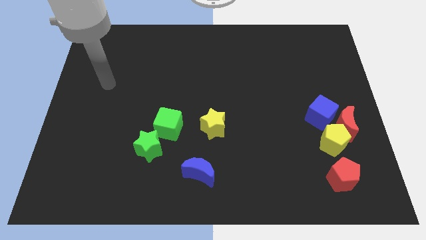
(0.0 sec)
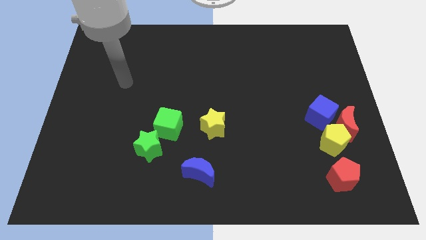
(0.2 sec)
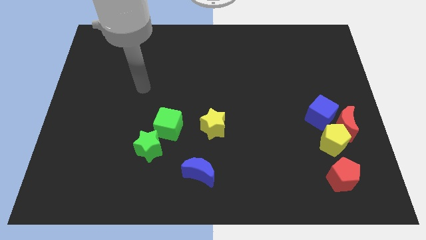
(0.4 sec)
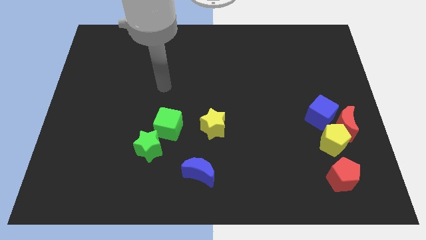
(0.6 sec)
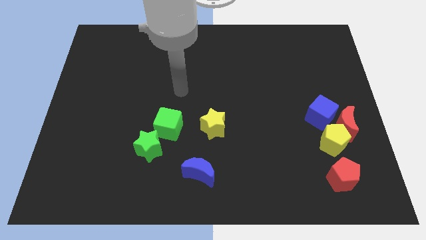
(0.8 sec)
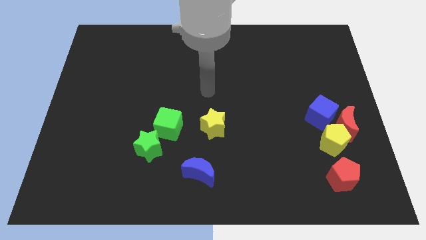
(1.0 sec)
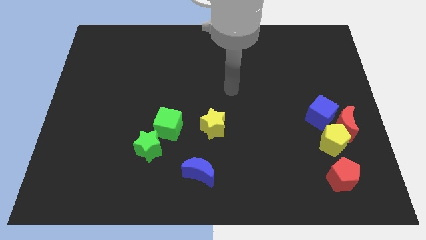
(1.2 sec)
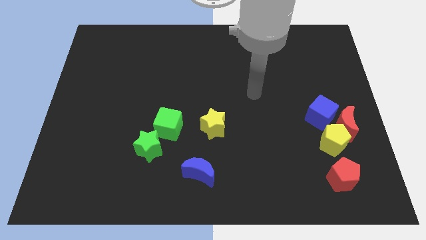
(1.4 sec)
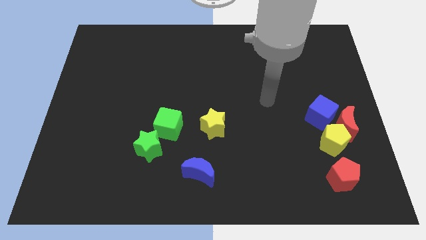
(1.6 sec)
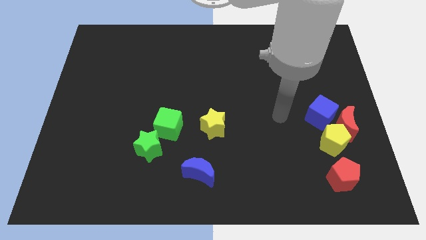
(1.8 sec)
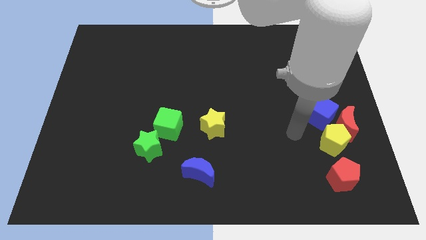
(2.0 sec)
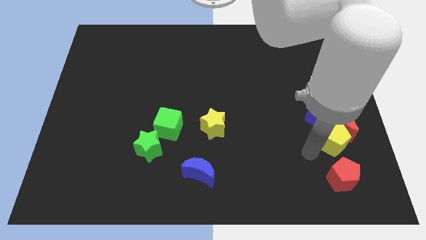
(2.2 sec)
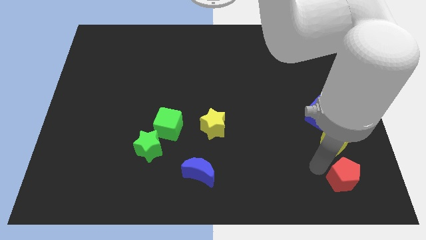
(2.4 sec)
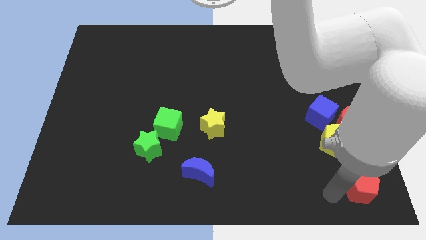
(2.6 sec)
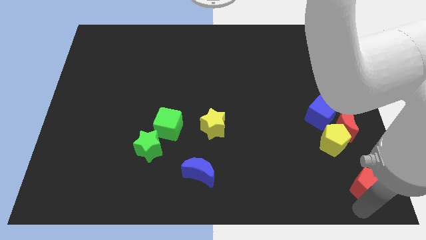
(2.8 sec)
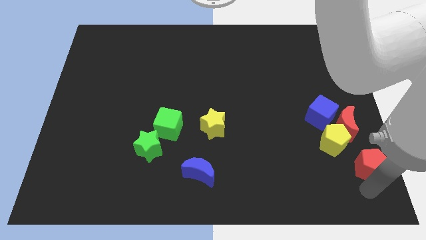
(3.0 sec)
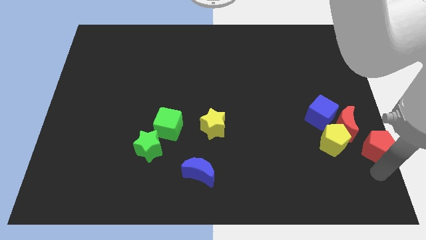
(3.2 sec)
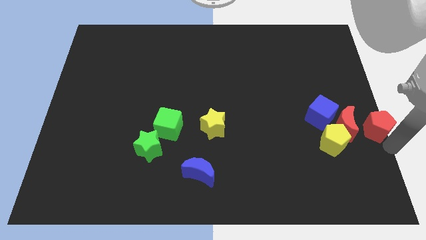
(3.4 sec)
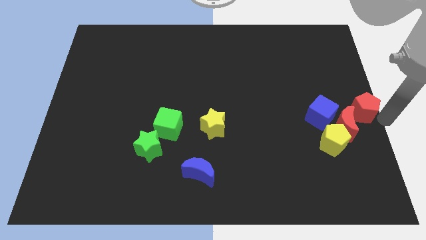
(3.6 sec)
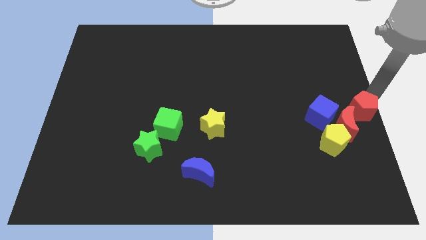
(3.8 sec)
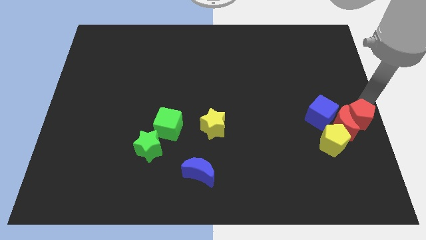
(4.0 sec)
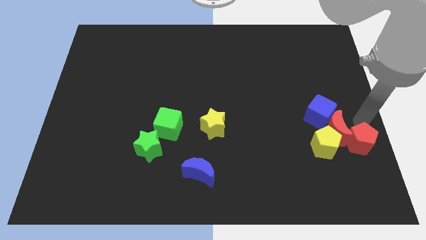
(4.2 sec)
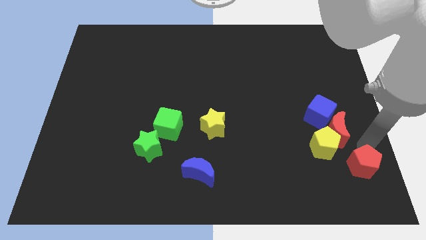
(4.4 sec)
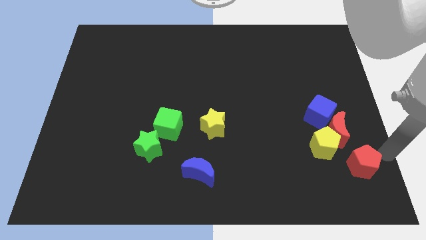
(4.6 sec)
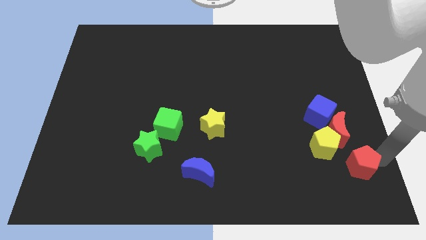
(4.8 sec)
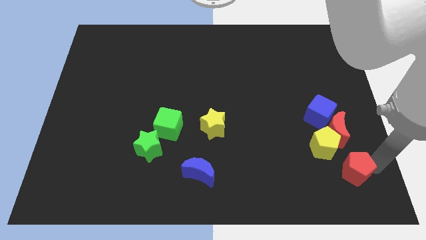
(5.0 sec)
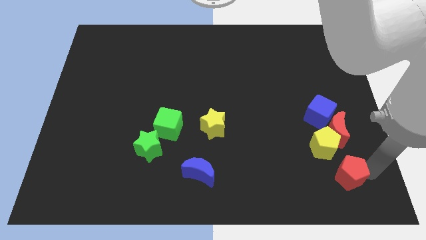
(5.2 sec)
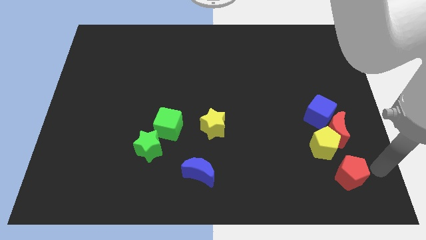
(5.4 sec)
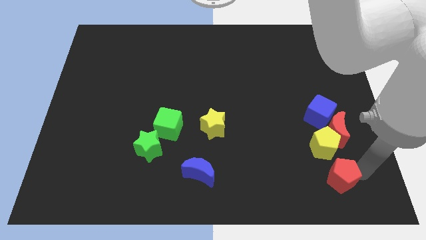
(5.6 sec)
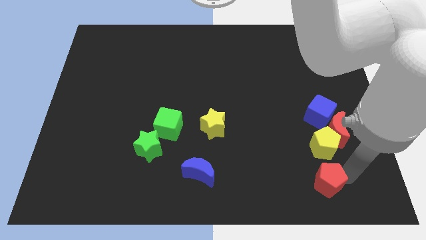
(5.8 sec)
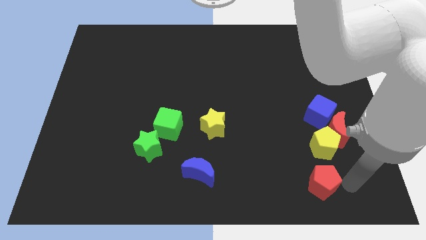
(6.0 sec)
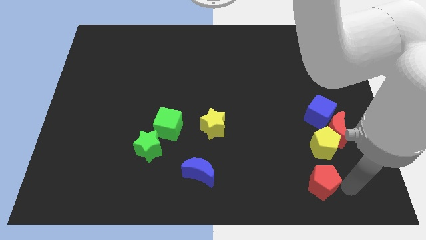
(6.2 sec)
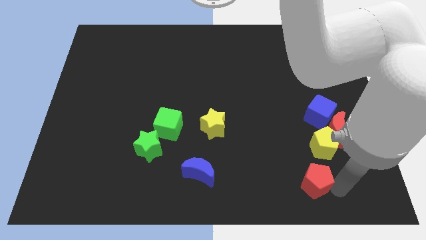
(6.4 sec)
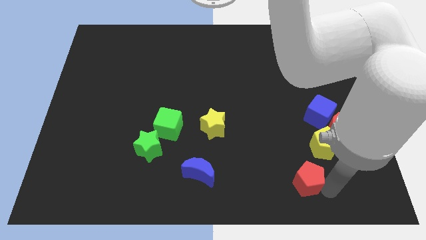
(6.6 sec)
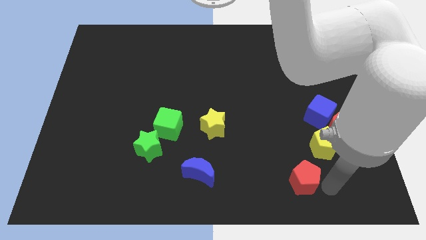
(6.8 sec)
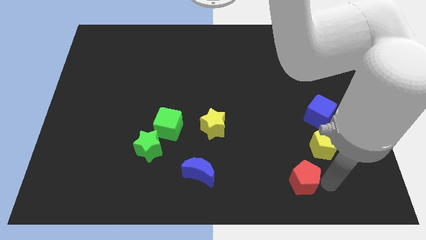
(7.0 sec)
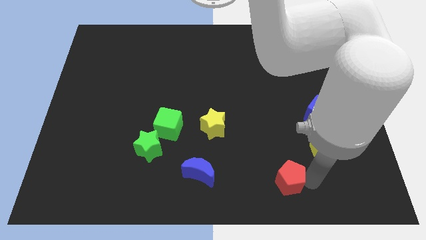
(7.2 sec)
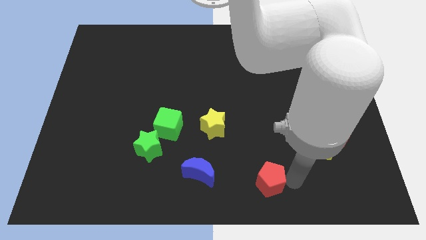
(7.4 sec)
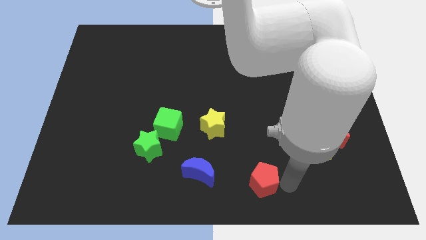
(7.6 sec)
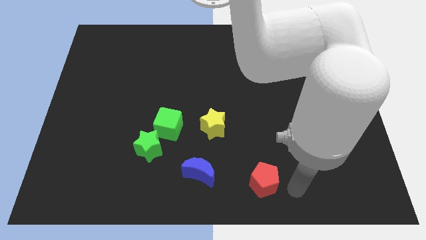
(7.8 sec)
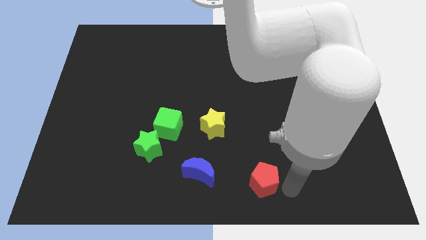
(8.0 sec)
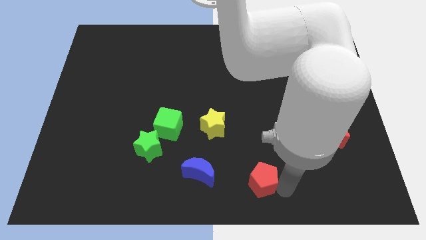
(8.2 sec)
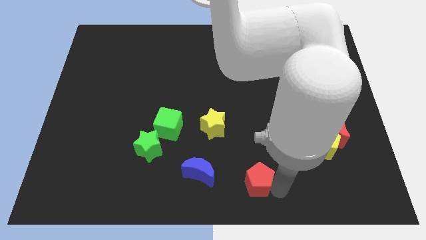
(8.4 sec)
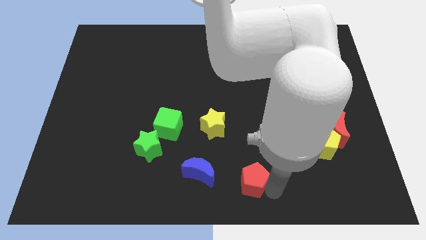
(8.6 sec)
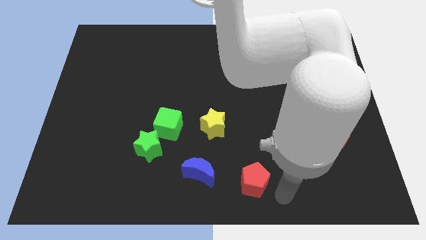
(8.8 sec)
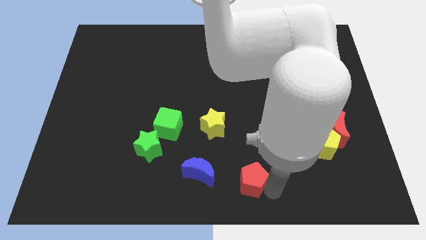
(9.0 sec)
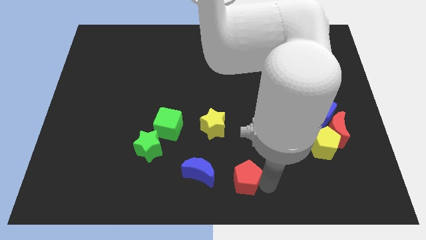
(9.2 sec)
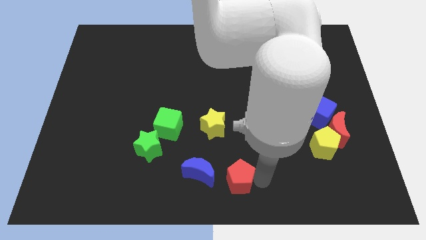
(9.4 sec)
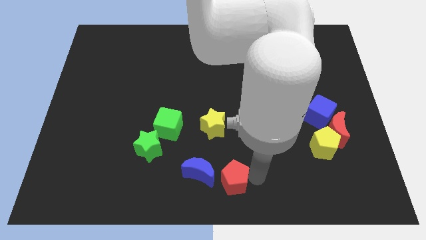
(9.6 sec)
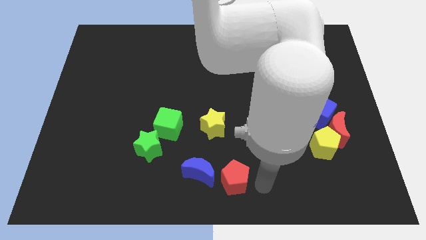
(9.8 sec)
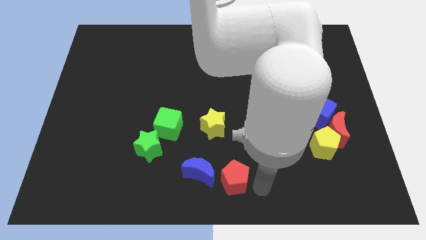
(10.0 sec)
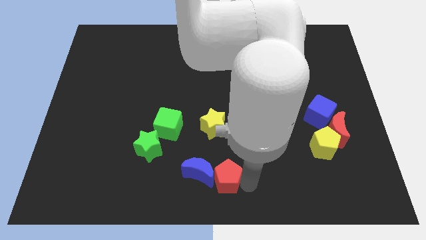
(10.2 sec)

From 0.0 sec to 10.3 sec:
slide the red pentagon next to the blue moon

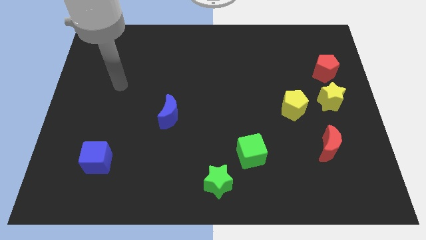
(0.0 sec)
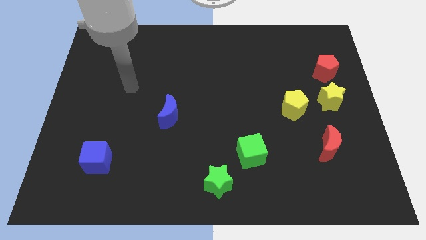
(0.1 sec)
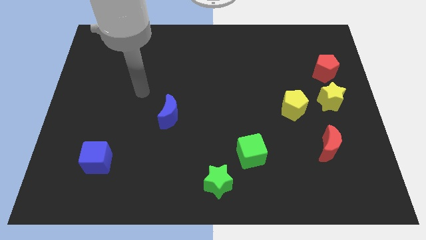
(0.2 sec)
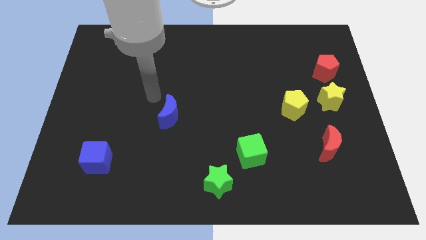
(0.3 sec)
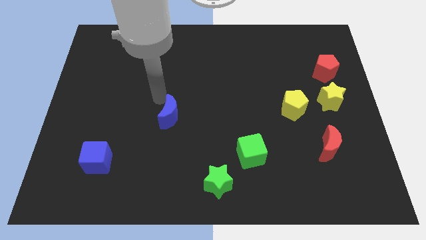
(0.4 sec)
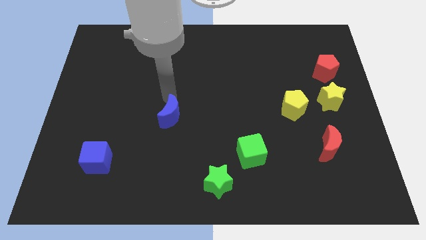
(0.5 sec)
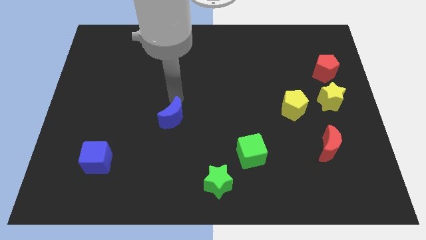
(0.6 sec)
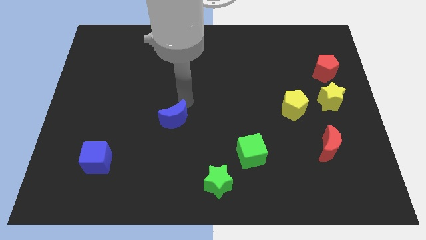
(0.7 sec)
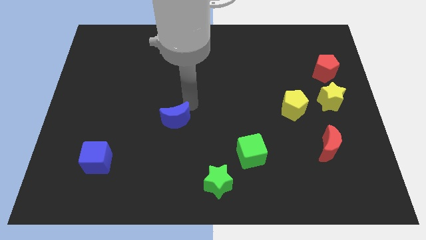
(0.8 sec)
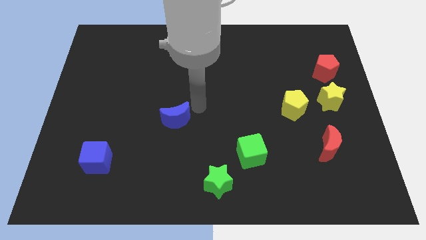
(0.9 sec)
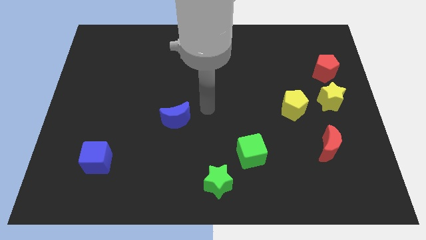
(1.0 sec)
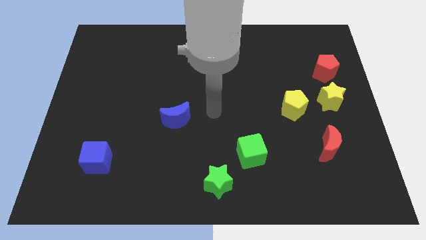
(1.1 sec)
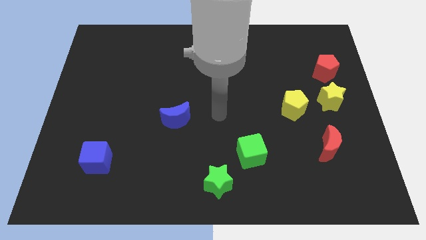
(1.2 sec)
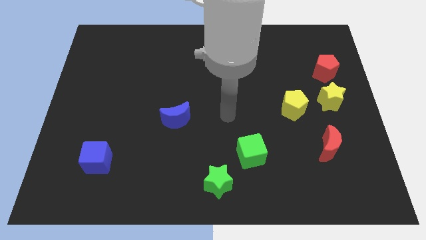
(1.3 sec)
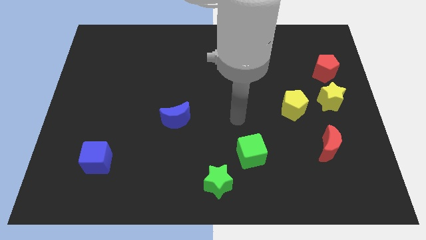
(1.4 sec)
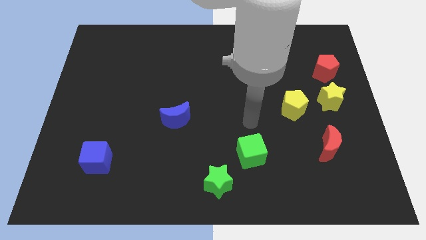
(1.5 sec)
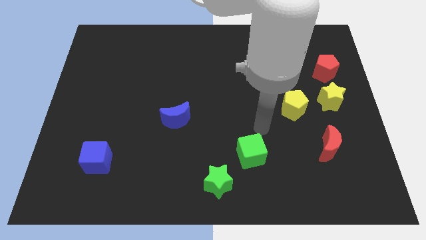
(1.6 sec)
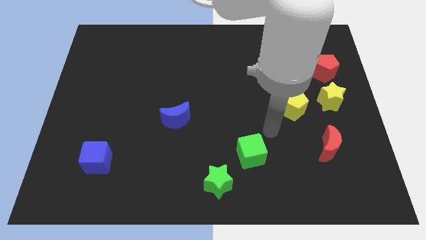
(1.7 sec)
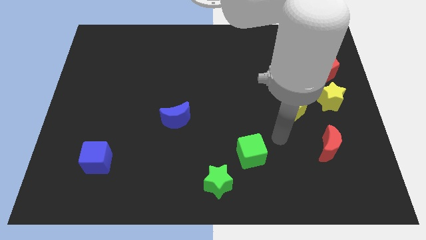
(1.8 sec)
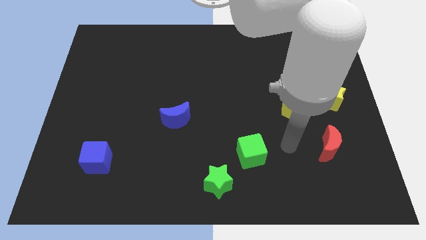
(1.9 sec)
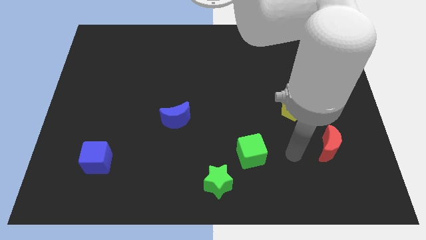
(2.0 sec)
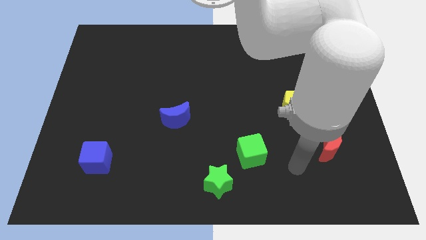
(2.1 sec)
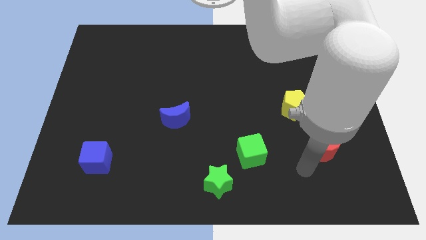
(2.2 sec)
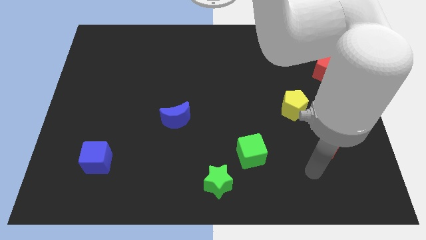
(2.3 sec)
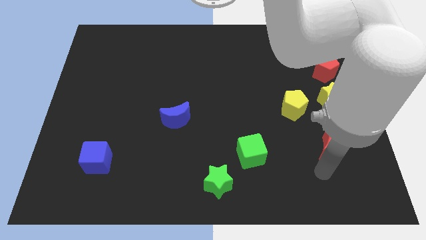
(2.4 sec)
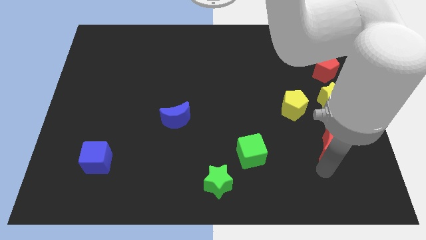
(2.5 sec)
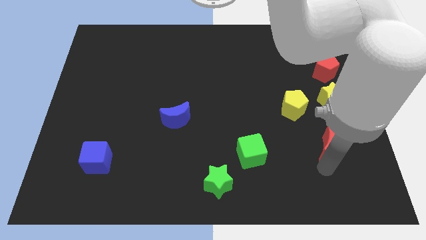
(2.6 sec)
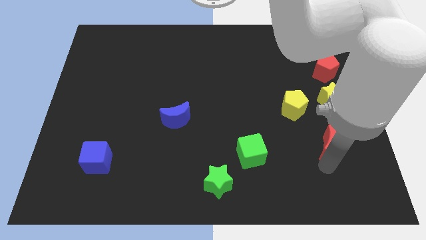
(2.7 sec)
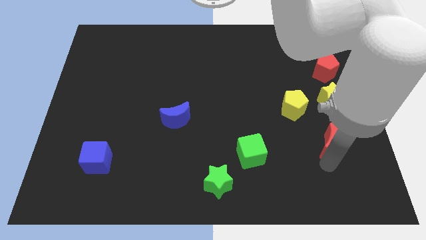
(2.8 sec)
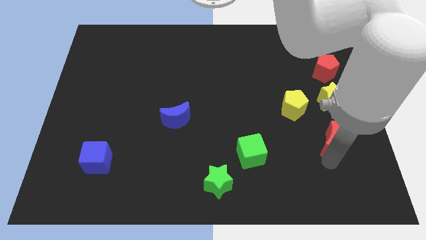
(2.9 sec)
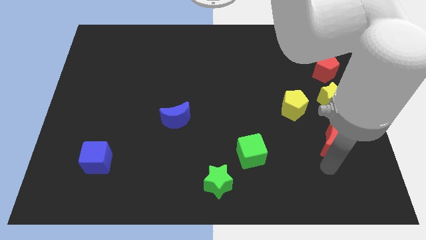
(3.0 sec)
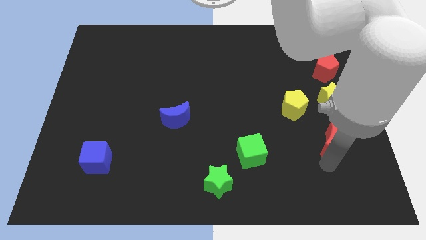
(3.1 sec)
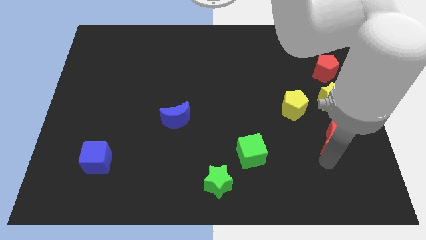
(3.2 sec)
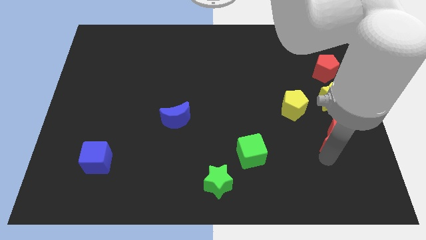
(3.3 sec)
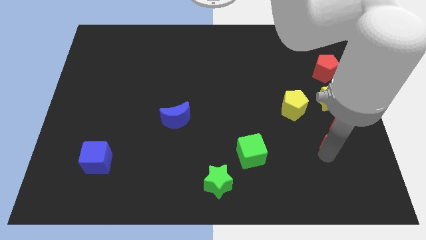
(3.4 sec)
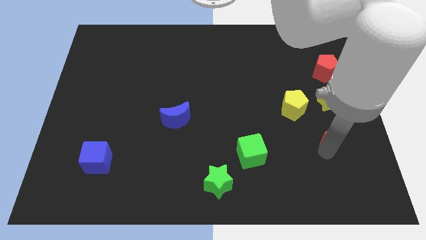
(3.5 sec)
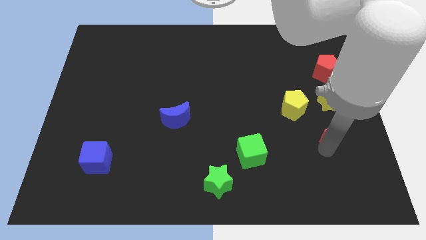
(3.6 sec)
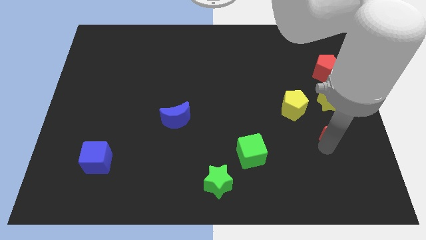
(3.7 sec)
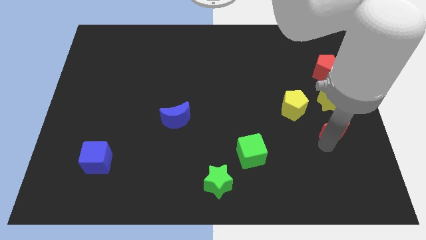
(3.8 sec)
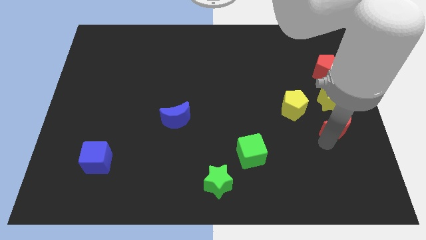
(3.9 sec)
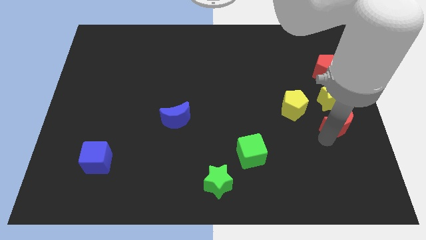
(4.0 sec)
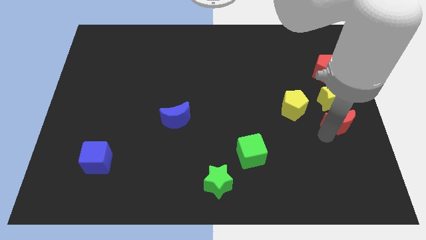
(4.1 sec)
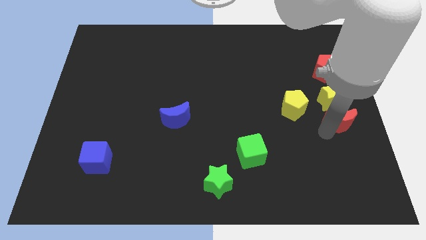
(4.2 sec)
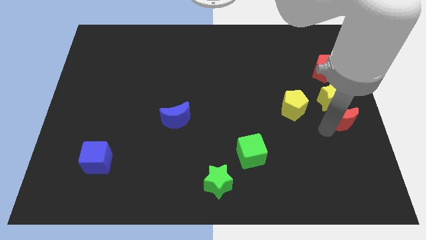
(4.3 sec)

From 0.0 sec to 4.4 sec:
put the red moon towards the yellow star
